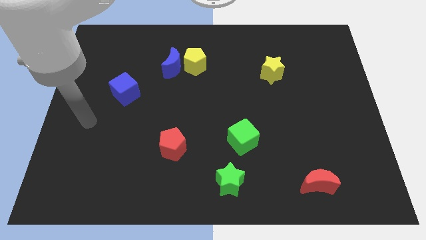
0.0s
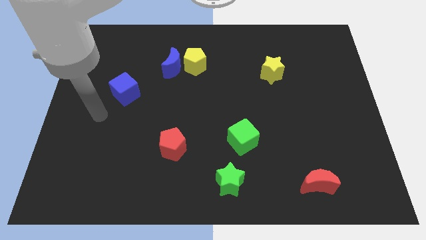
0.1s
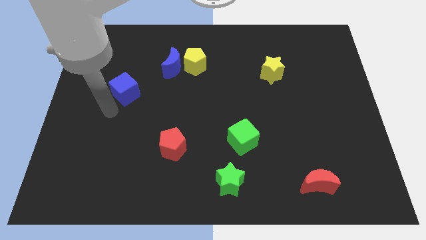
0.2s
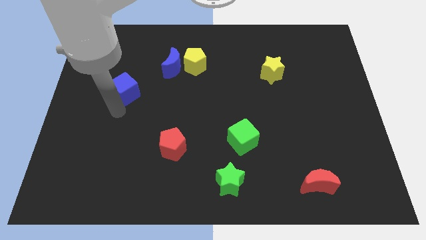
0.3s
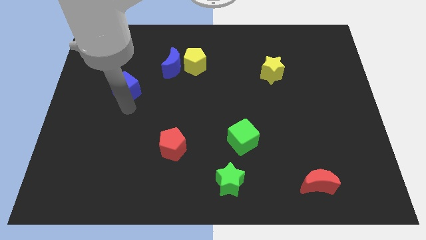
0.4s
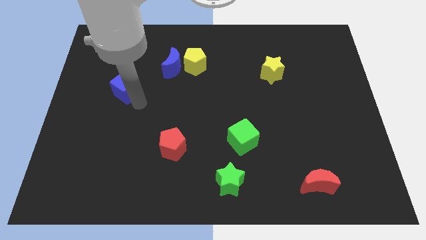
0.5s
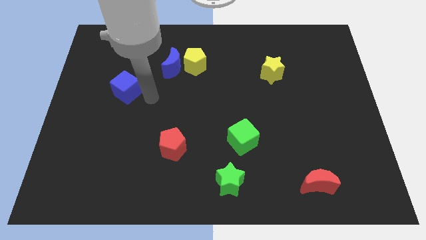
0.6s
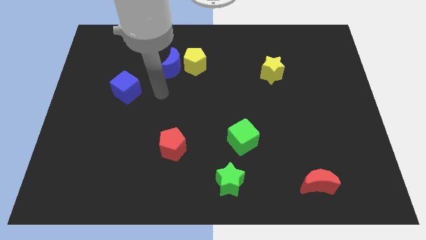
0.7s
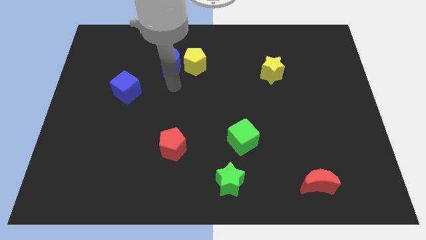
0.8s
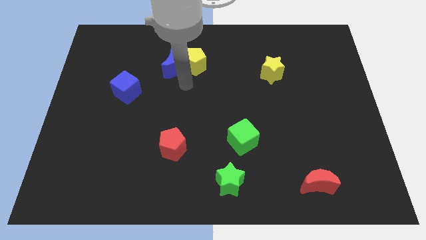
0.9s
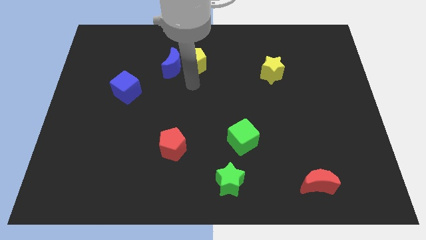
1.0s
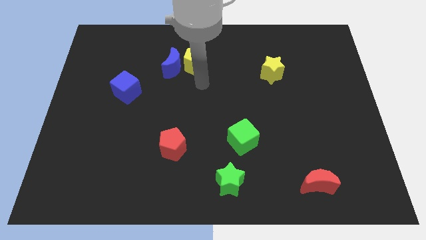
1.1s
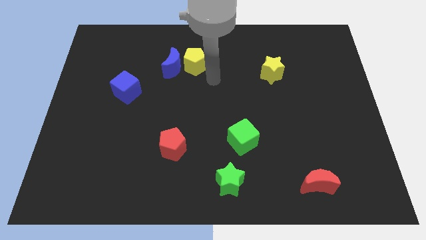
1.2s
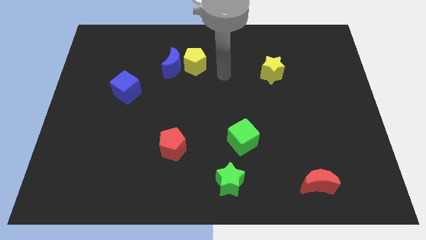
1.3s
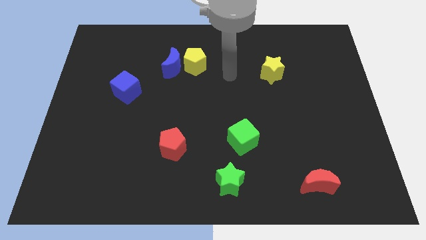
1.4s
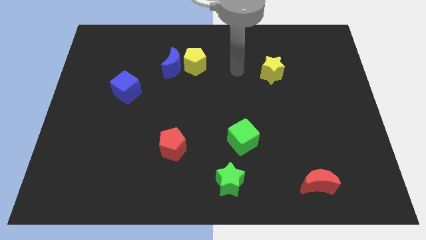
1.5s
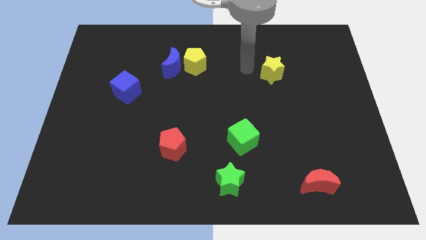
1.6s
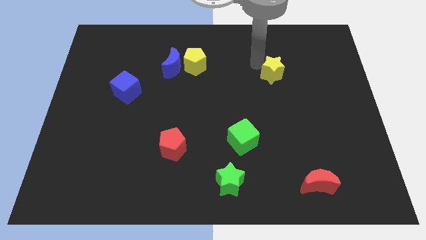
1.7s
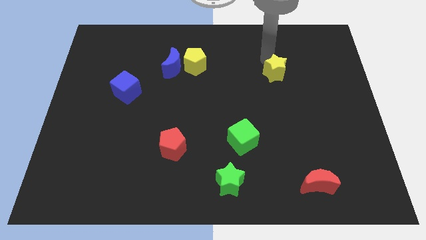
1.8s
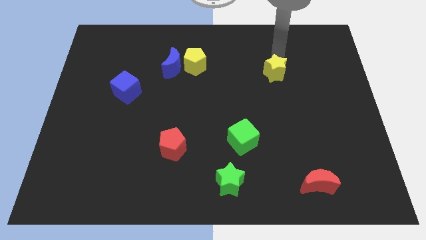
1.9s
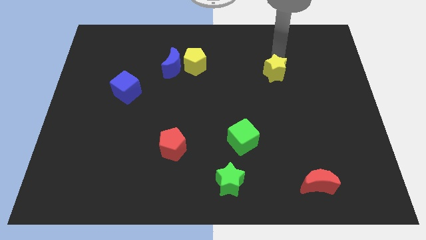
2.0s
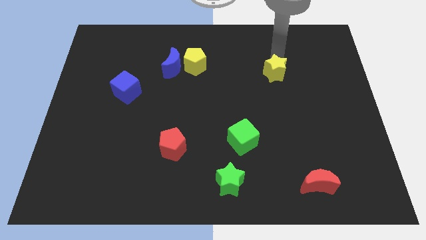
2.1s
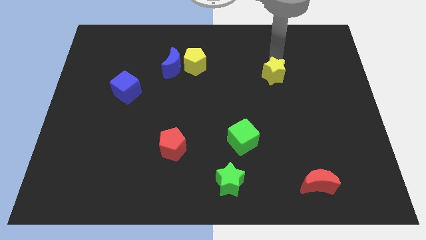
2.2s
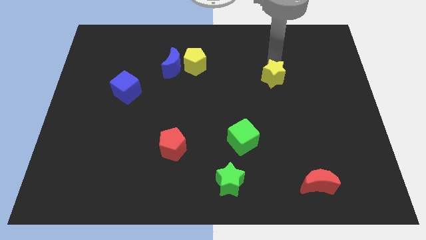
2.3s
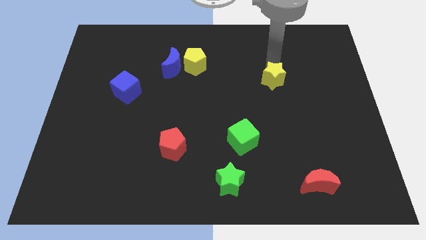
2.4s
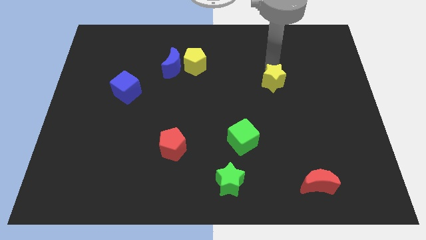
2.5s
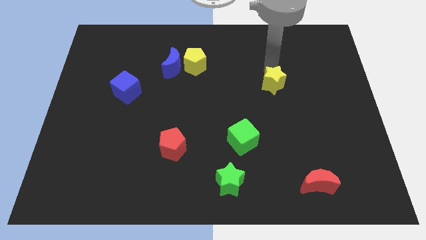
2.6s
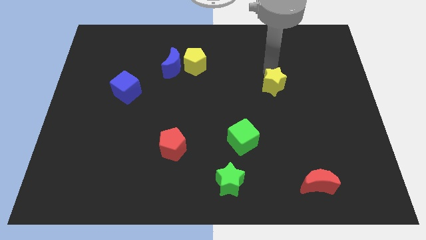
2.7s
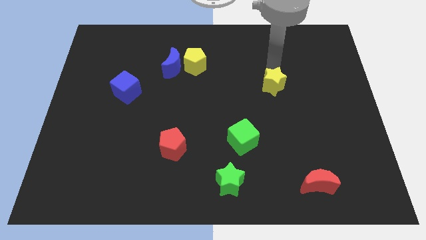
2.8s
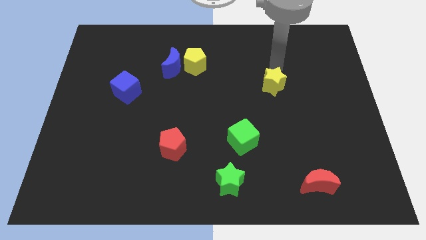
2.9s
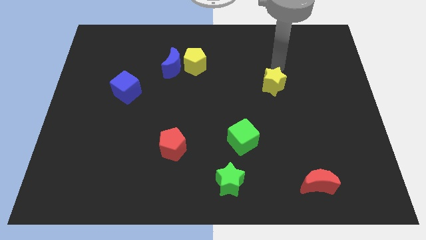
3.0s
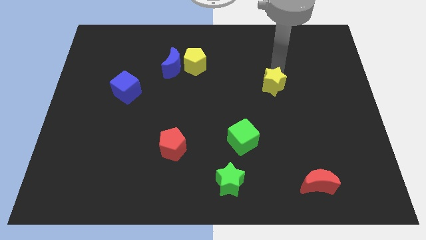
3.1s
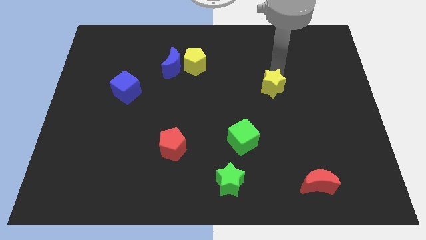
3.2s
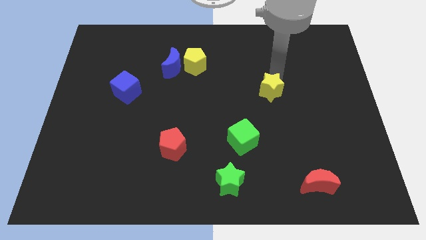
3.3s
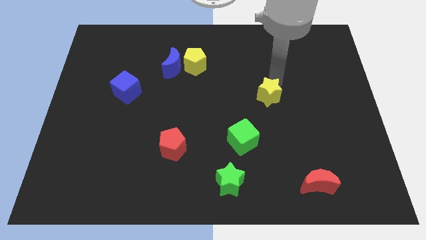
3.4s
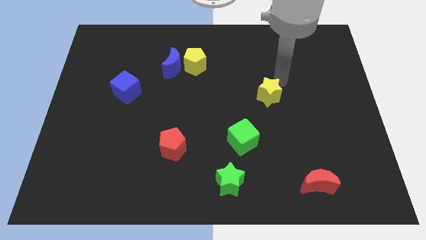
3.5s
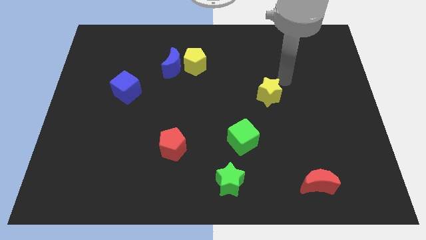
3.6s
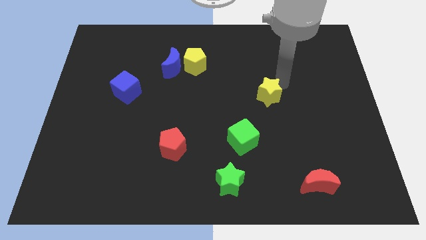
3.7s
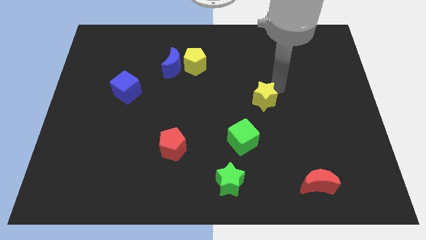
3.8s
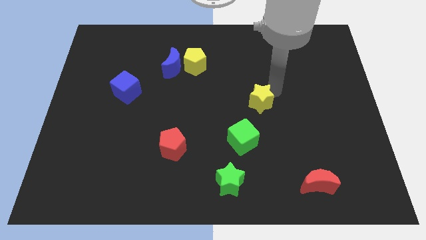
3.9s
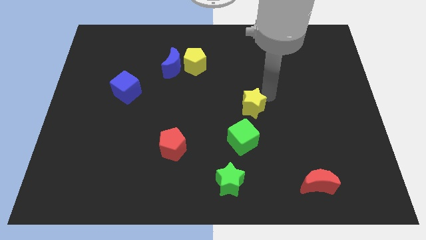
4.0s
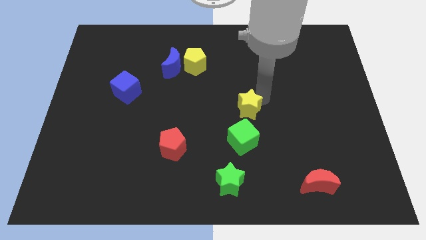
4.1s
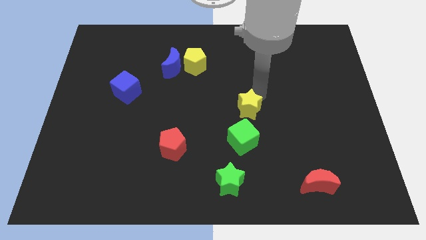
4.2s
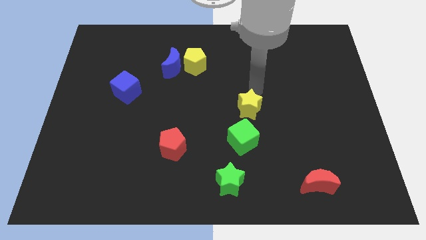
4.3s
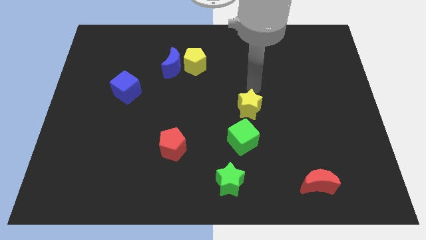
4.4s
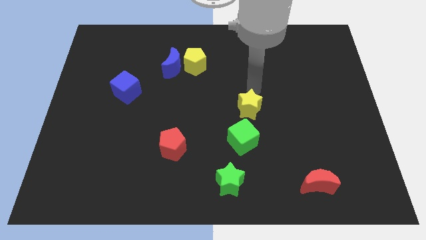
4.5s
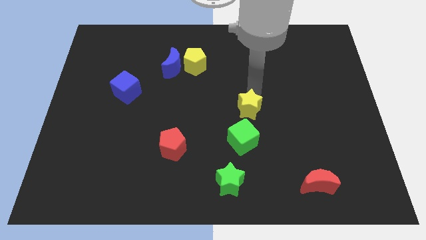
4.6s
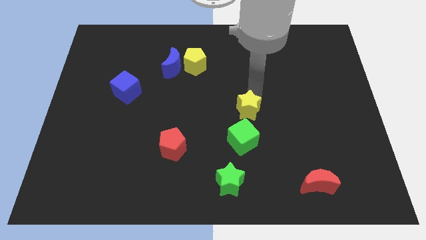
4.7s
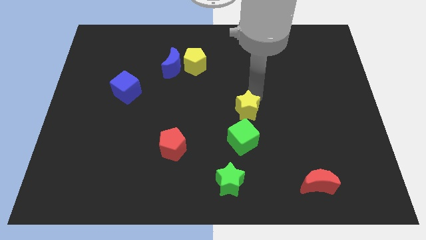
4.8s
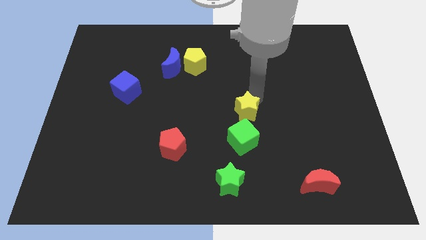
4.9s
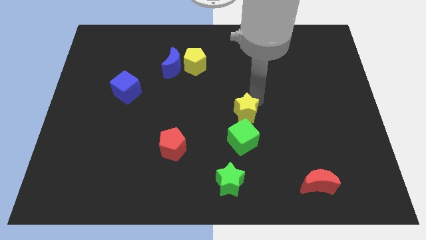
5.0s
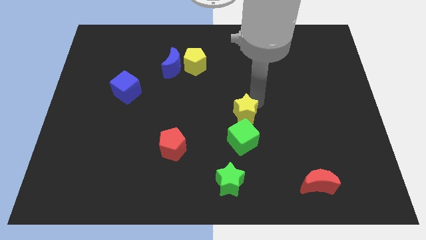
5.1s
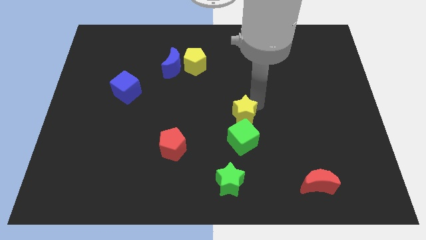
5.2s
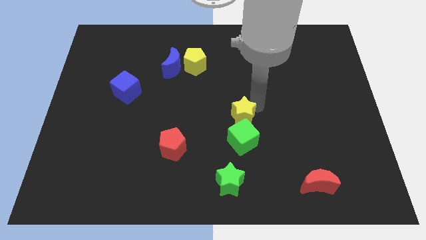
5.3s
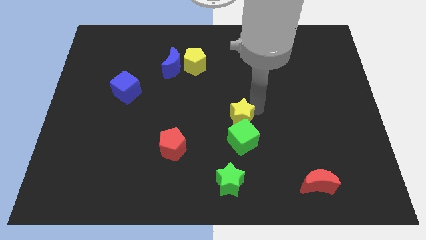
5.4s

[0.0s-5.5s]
move the yellow star towards the green cube

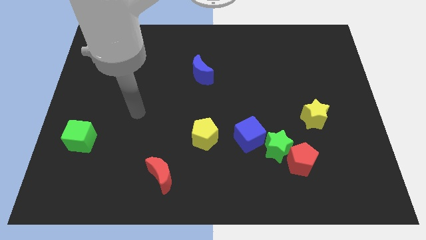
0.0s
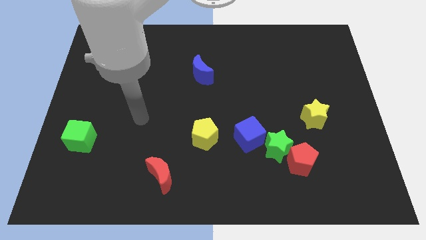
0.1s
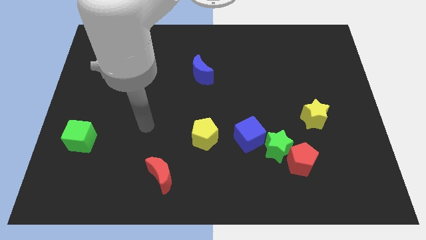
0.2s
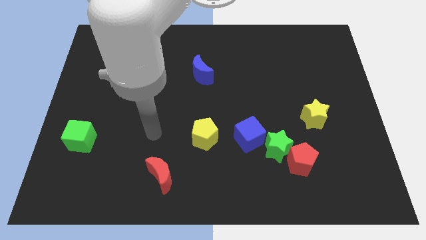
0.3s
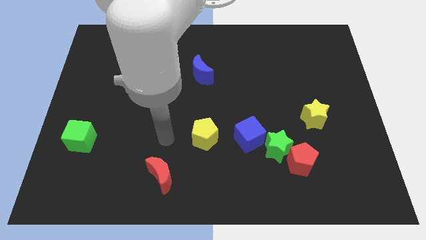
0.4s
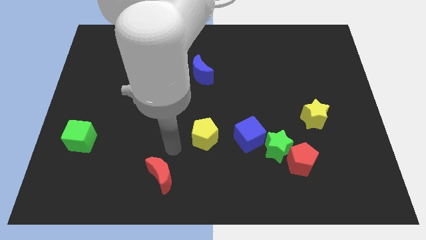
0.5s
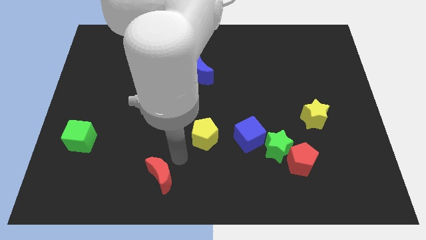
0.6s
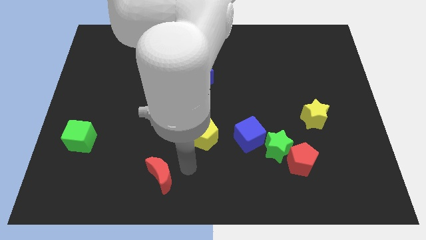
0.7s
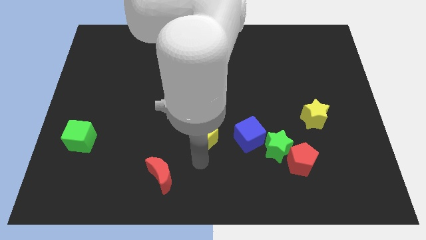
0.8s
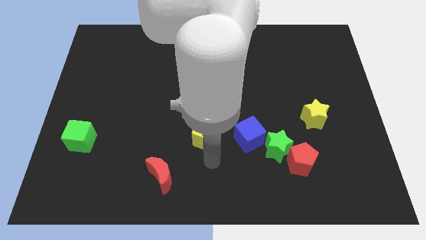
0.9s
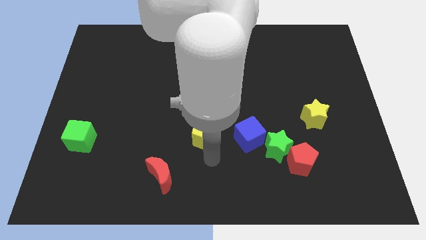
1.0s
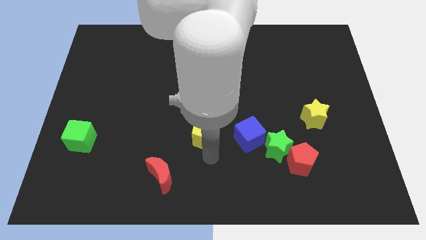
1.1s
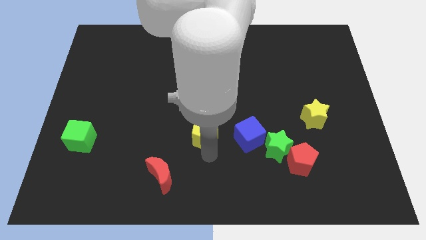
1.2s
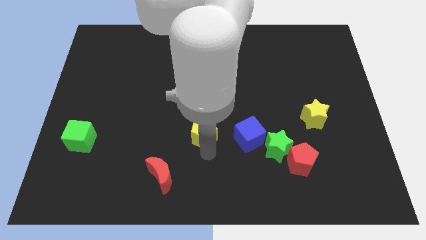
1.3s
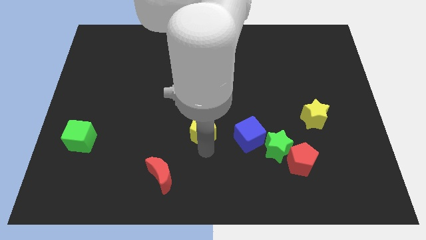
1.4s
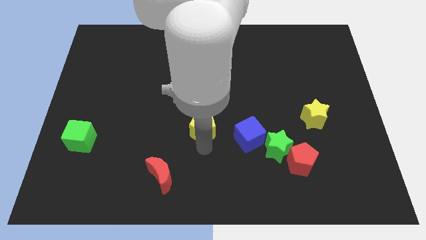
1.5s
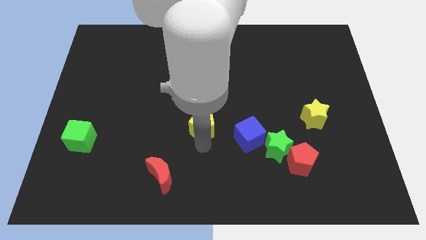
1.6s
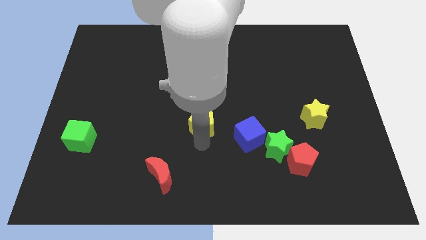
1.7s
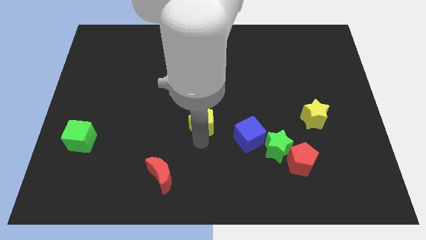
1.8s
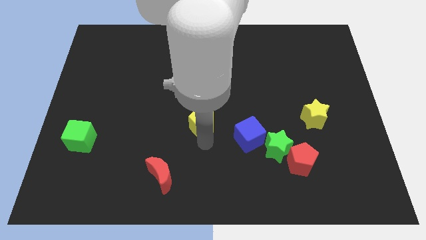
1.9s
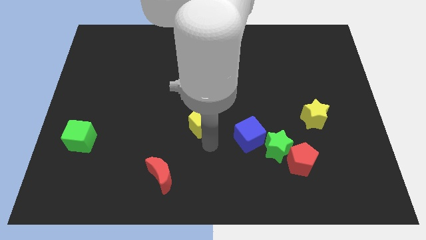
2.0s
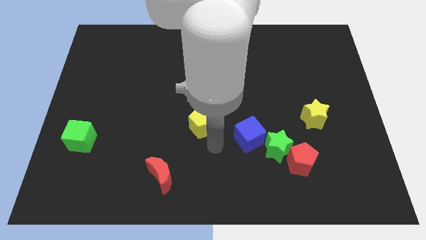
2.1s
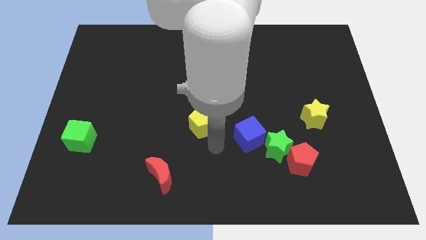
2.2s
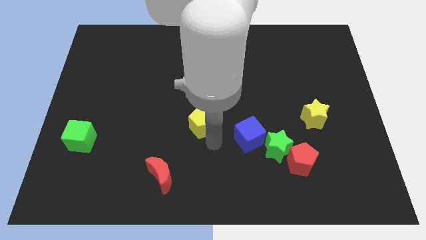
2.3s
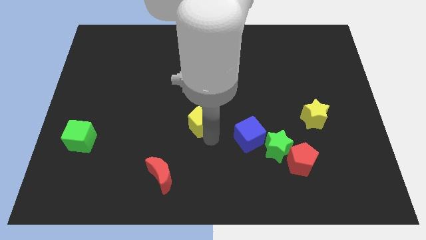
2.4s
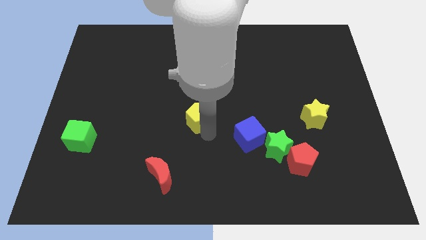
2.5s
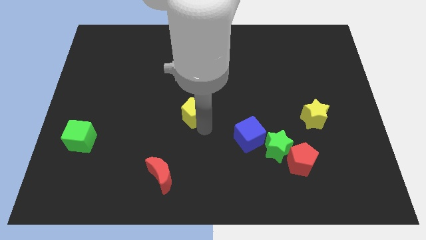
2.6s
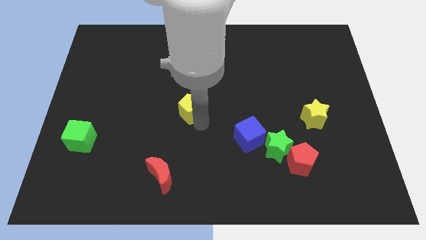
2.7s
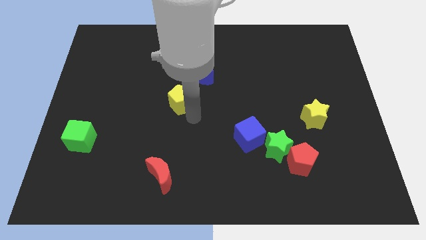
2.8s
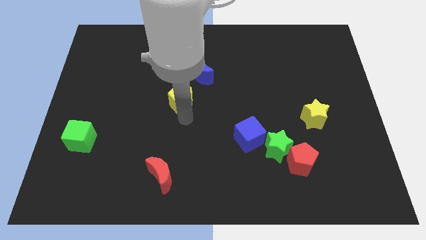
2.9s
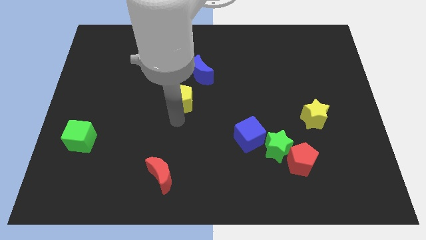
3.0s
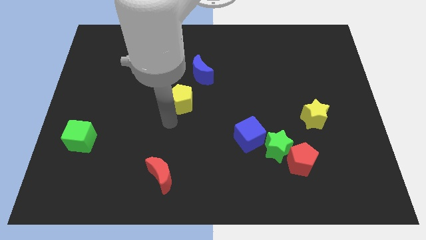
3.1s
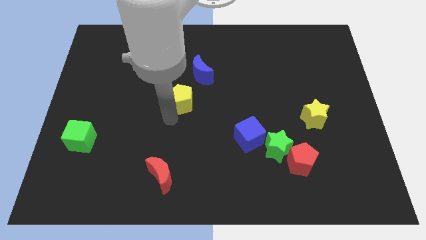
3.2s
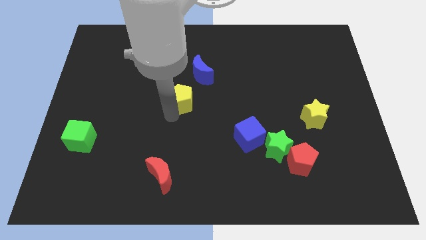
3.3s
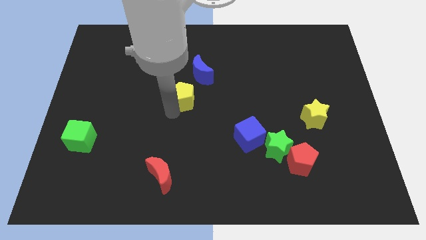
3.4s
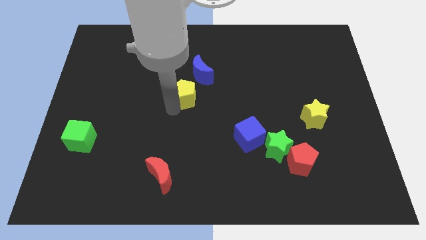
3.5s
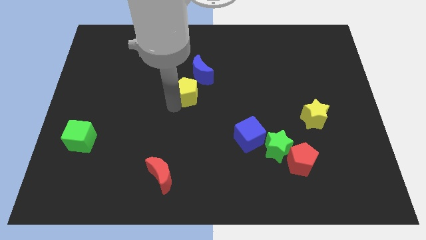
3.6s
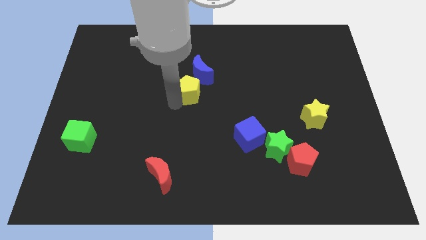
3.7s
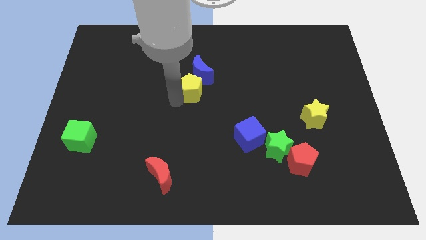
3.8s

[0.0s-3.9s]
move the yellow pentagon to the blue moon
